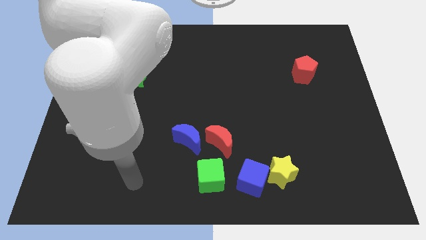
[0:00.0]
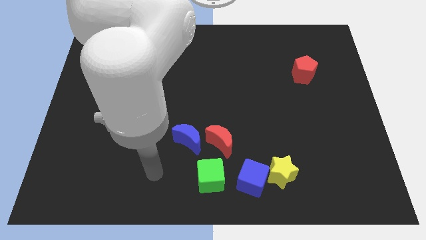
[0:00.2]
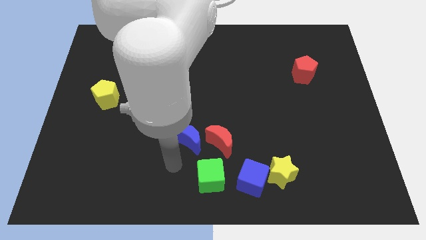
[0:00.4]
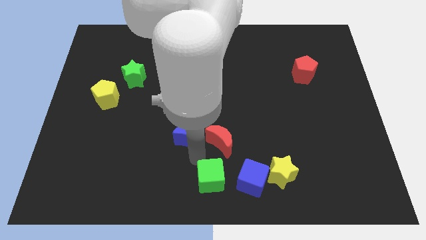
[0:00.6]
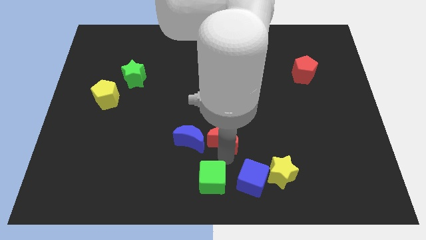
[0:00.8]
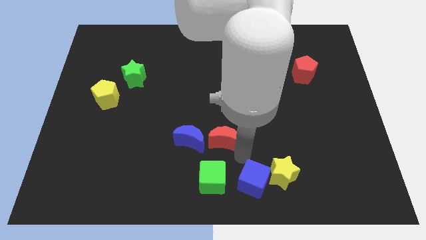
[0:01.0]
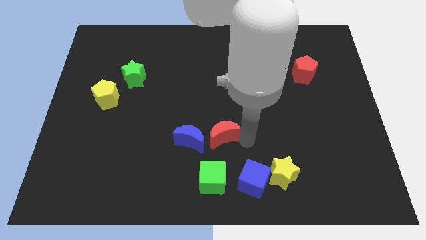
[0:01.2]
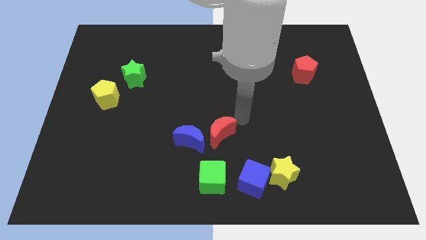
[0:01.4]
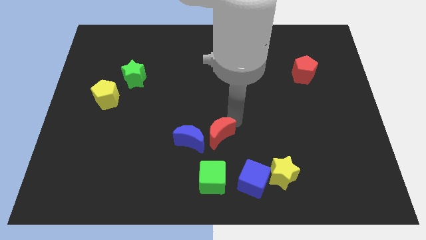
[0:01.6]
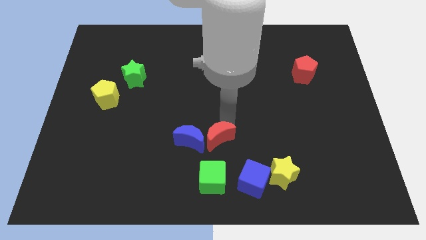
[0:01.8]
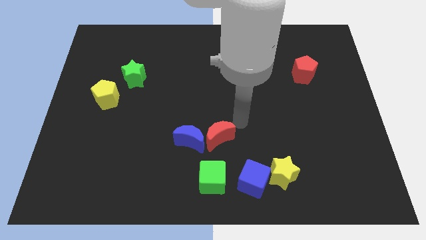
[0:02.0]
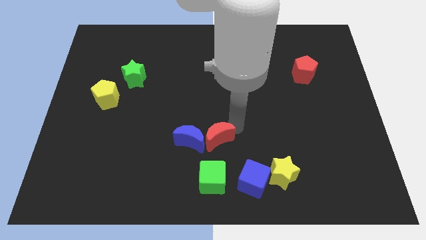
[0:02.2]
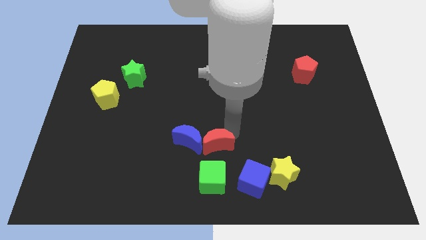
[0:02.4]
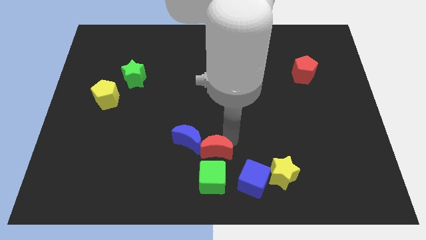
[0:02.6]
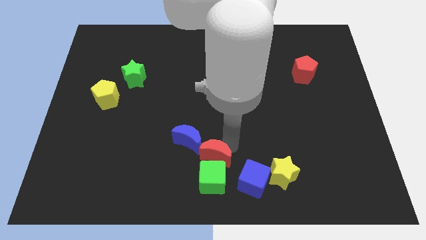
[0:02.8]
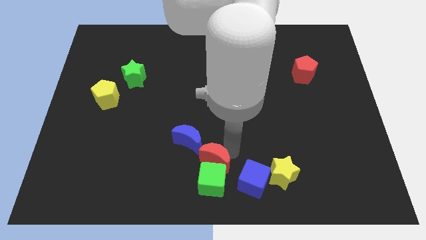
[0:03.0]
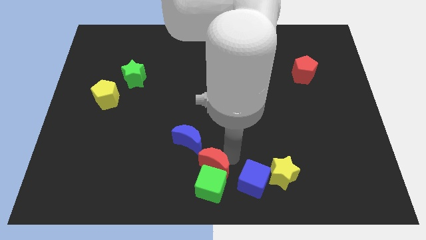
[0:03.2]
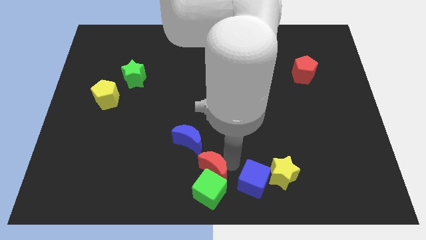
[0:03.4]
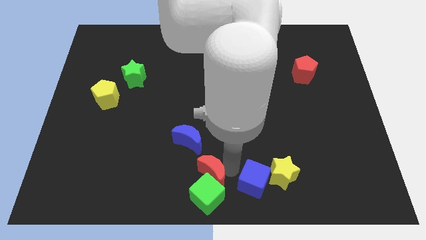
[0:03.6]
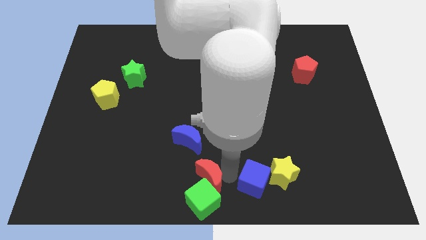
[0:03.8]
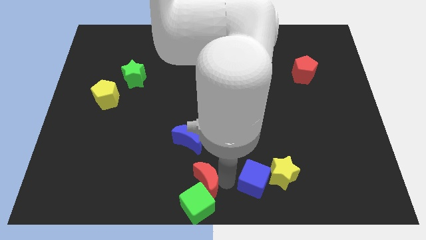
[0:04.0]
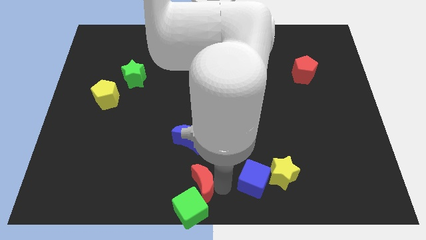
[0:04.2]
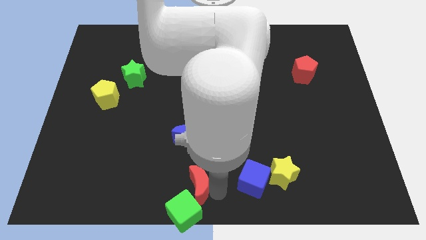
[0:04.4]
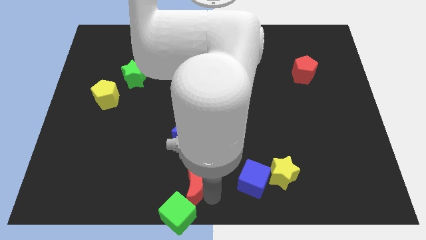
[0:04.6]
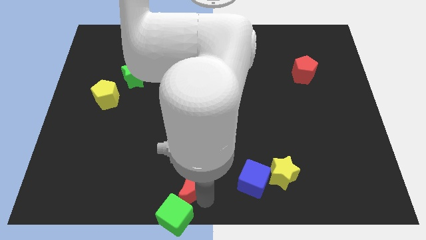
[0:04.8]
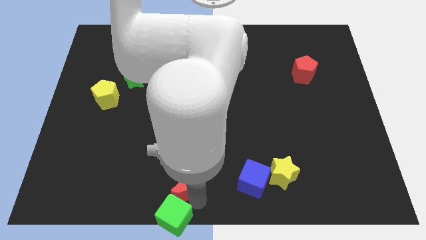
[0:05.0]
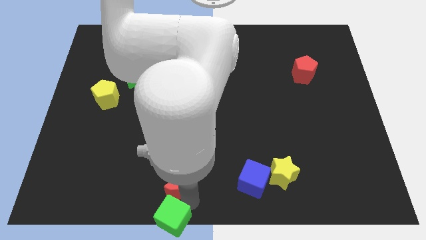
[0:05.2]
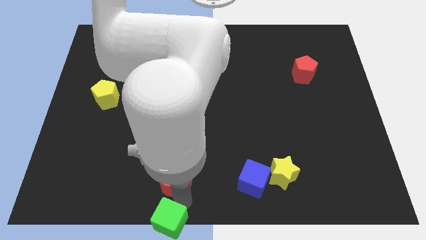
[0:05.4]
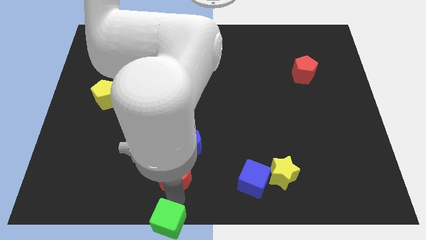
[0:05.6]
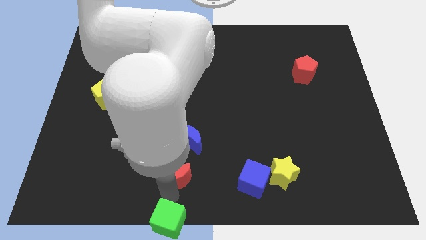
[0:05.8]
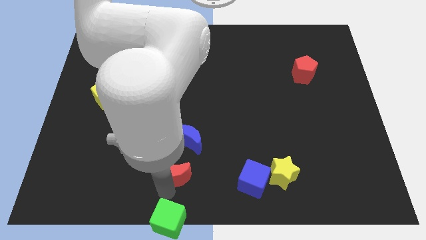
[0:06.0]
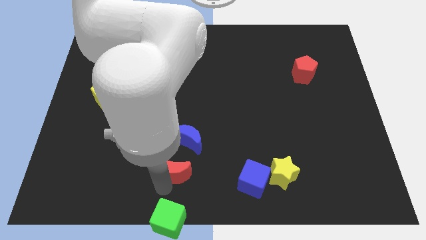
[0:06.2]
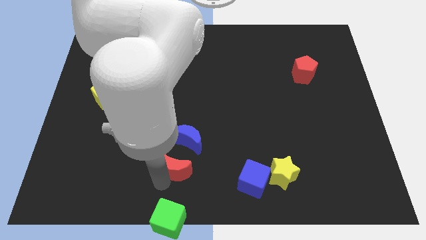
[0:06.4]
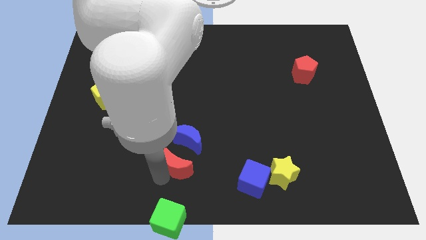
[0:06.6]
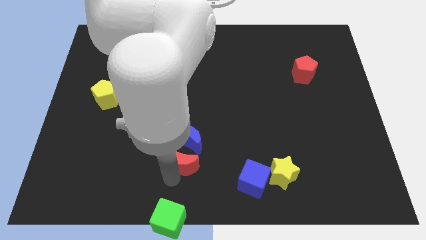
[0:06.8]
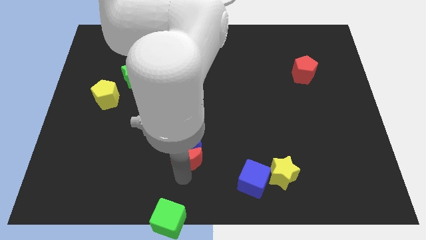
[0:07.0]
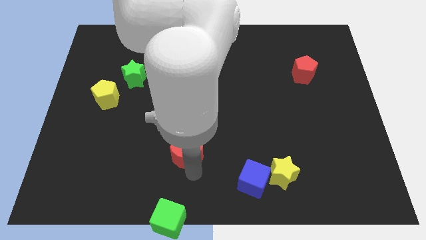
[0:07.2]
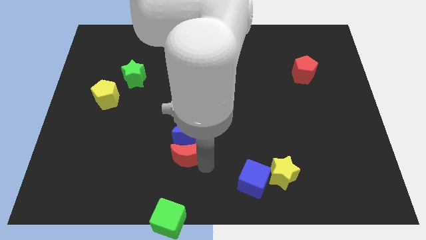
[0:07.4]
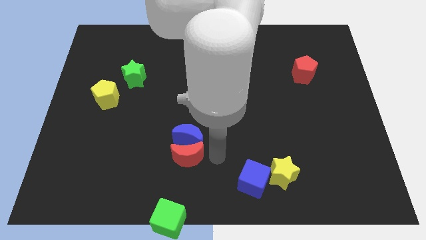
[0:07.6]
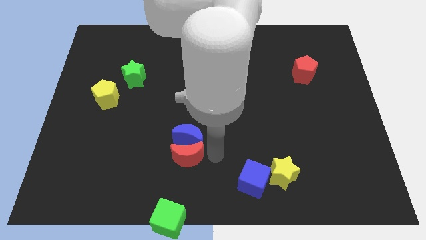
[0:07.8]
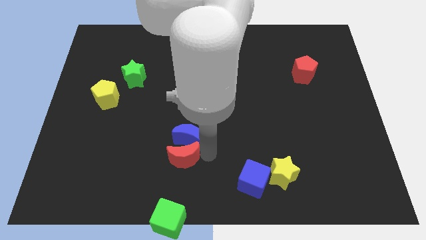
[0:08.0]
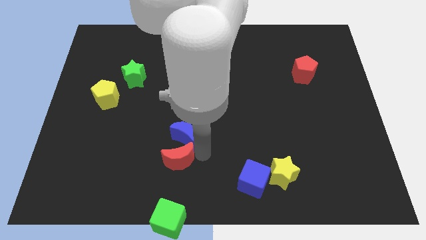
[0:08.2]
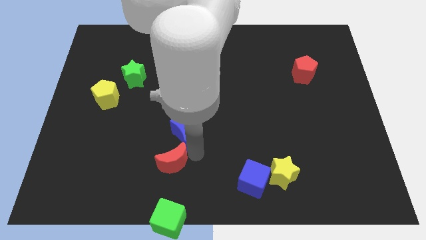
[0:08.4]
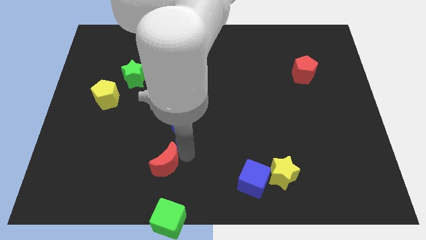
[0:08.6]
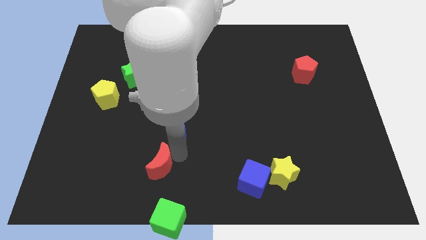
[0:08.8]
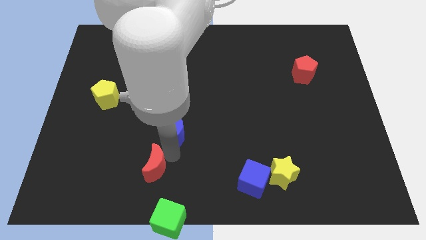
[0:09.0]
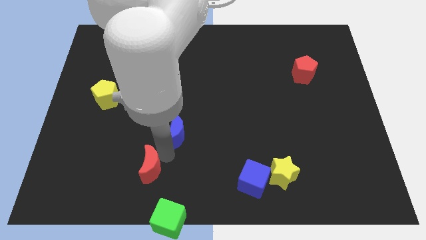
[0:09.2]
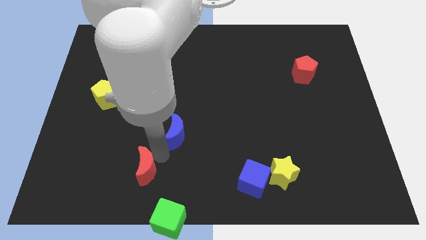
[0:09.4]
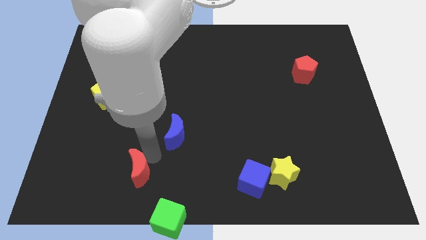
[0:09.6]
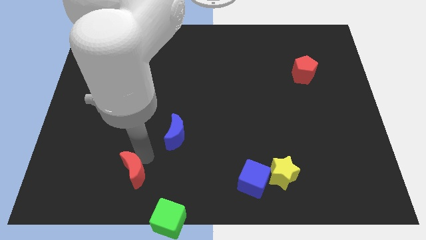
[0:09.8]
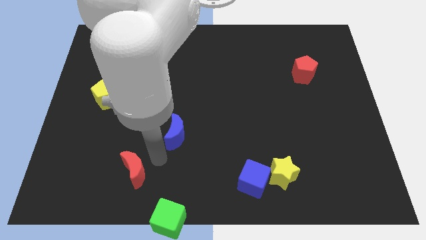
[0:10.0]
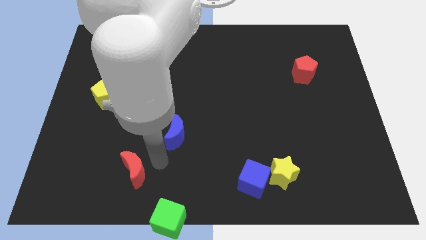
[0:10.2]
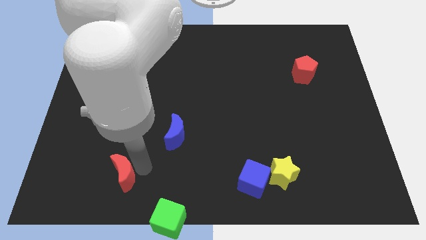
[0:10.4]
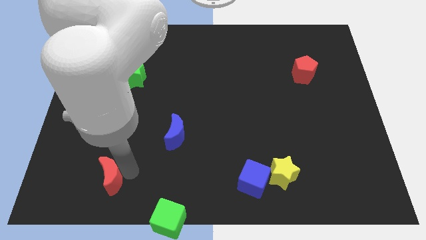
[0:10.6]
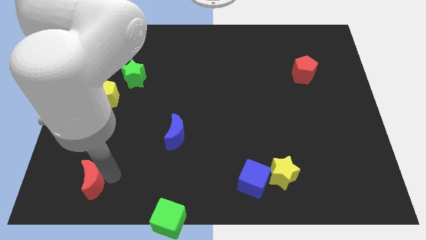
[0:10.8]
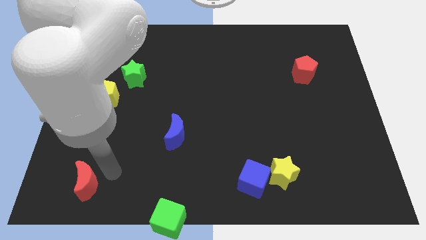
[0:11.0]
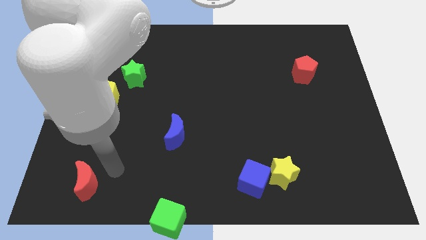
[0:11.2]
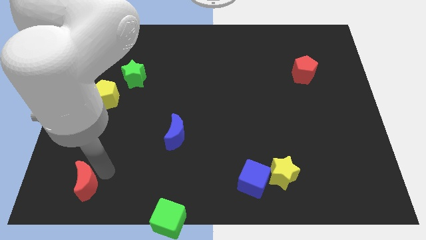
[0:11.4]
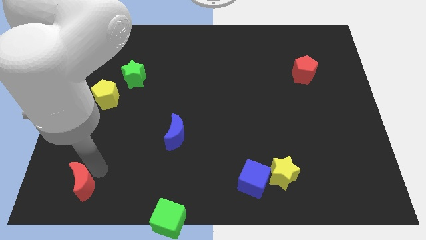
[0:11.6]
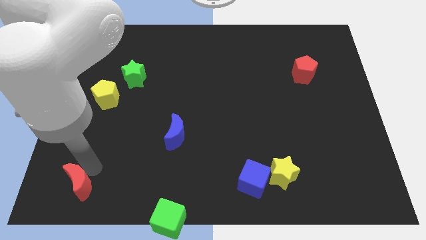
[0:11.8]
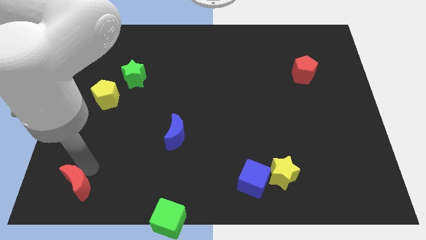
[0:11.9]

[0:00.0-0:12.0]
move the red moon to the bottom left

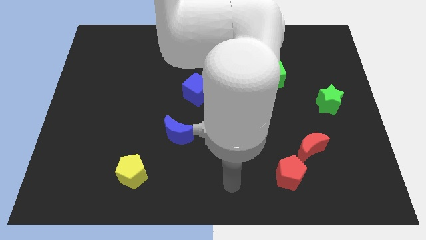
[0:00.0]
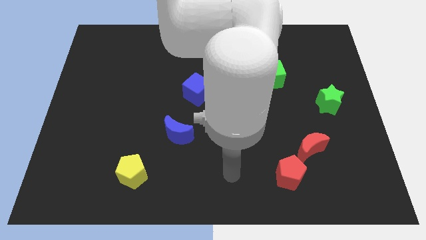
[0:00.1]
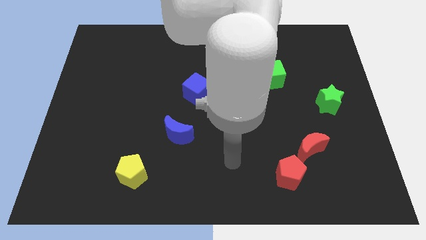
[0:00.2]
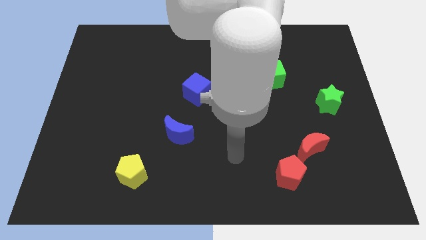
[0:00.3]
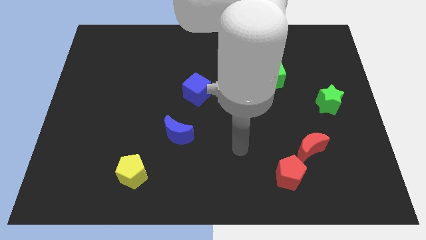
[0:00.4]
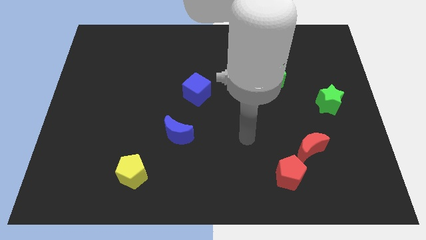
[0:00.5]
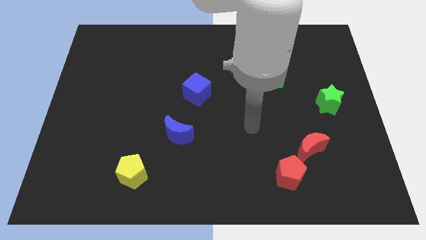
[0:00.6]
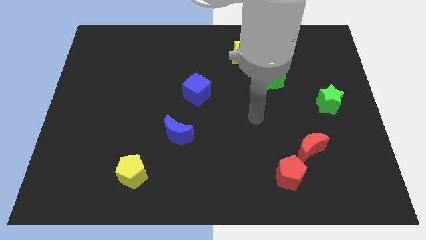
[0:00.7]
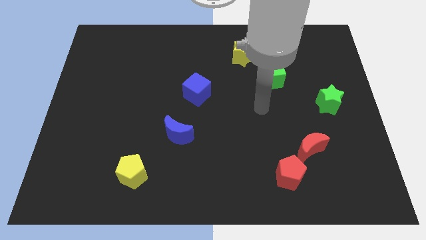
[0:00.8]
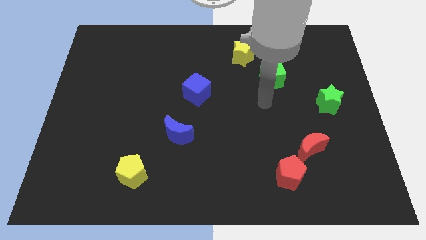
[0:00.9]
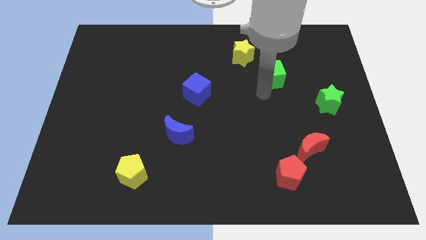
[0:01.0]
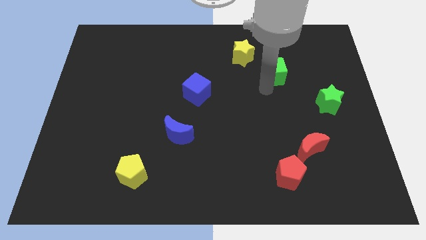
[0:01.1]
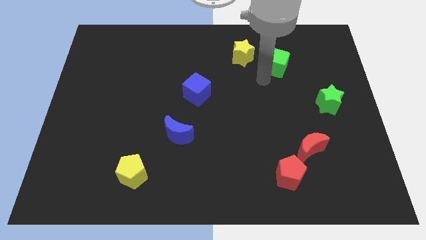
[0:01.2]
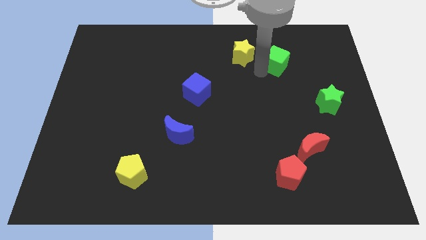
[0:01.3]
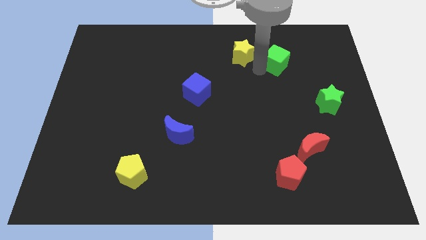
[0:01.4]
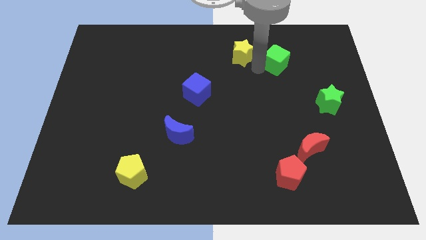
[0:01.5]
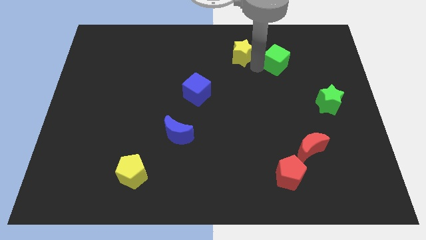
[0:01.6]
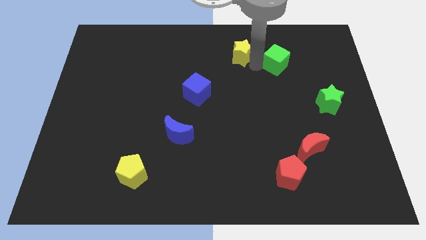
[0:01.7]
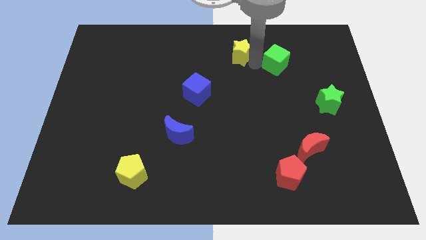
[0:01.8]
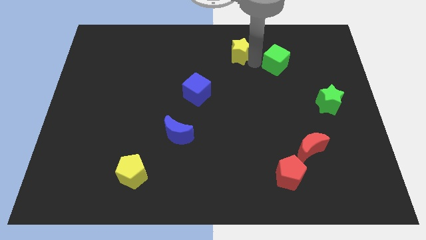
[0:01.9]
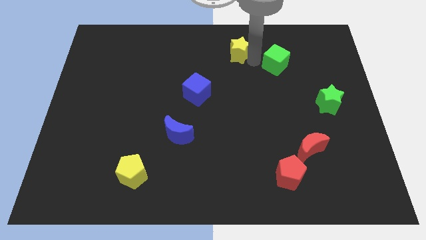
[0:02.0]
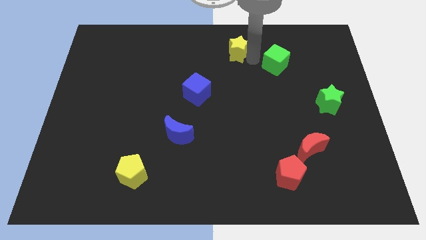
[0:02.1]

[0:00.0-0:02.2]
move the yellow star to the top side
